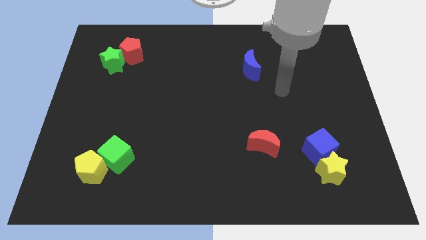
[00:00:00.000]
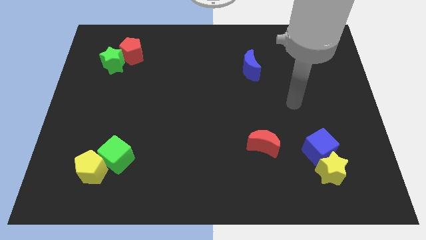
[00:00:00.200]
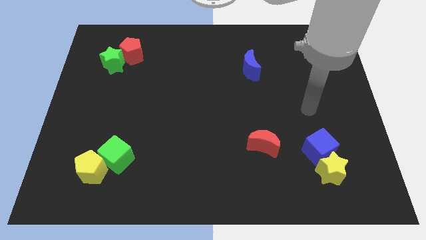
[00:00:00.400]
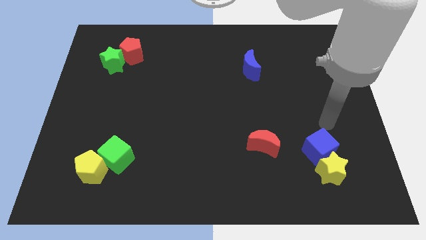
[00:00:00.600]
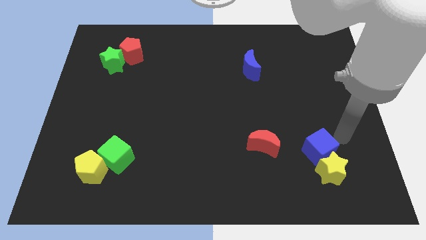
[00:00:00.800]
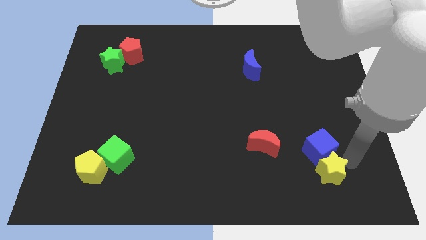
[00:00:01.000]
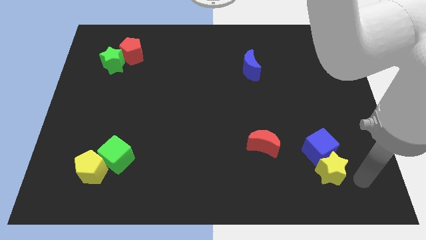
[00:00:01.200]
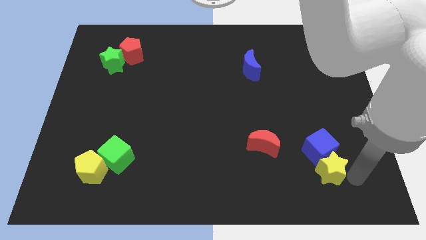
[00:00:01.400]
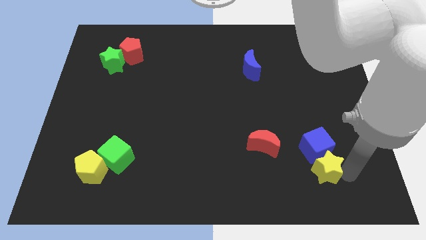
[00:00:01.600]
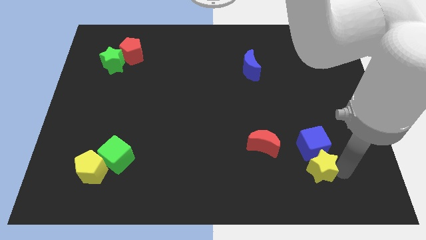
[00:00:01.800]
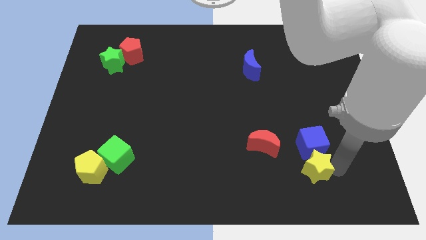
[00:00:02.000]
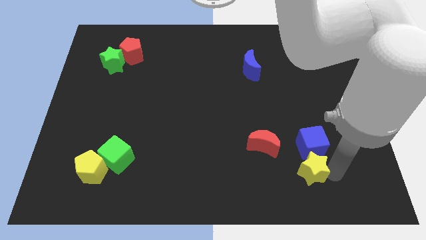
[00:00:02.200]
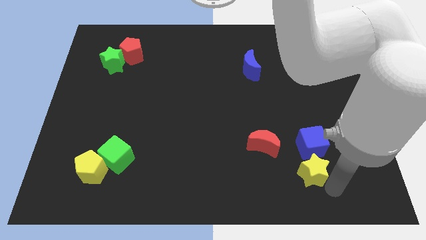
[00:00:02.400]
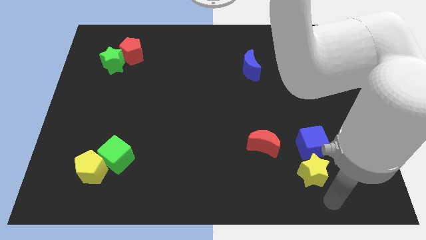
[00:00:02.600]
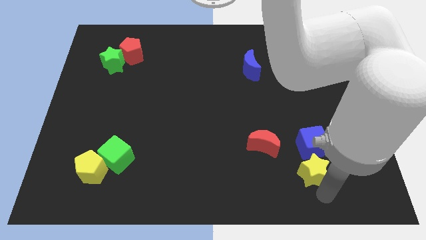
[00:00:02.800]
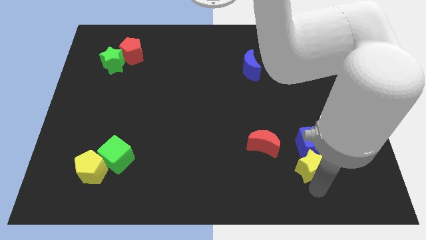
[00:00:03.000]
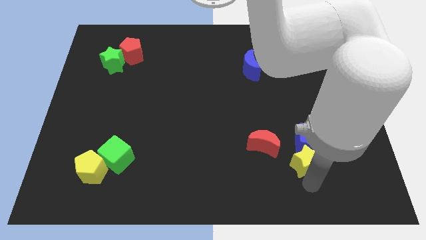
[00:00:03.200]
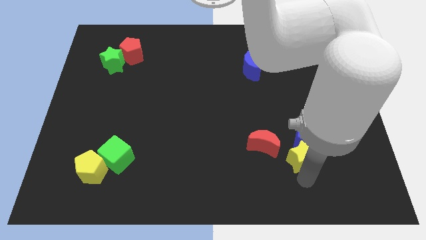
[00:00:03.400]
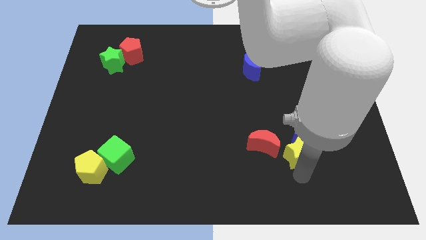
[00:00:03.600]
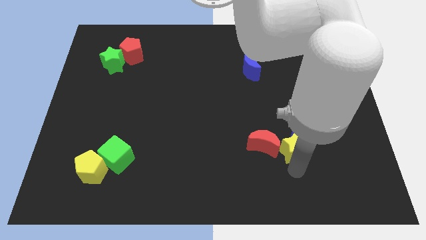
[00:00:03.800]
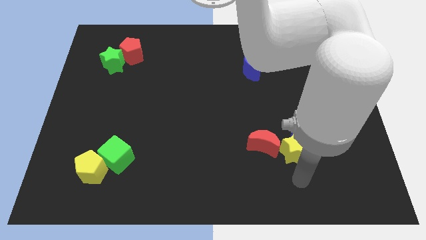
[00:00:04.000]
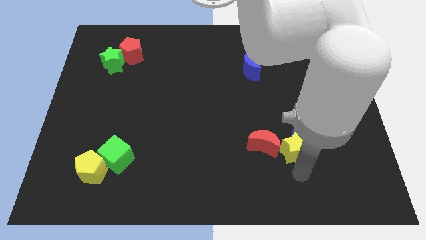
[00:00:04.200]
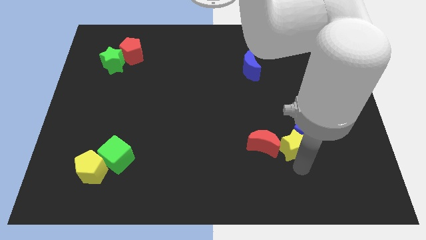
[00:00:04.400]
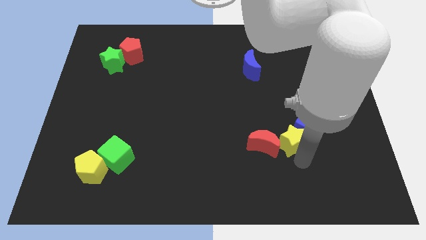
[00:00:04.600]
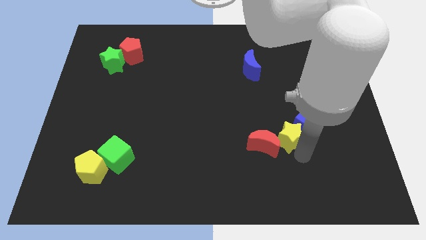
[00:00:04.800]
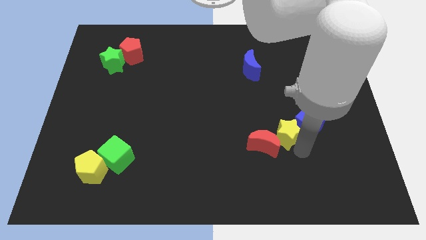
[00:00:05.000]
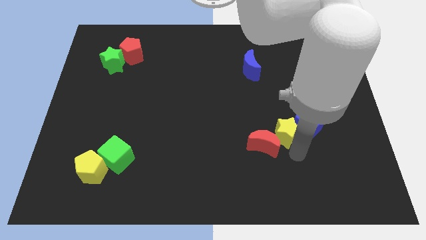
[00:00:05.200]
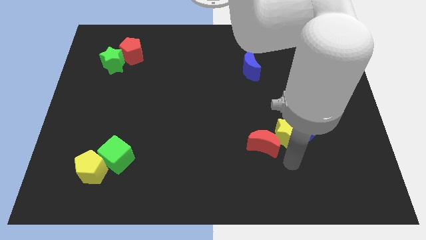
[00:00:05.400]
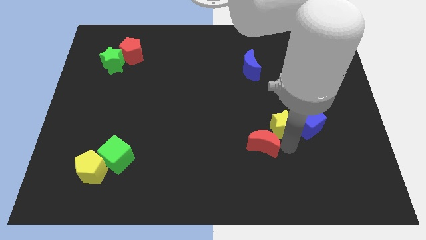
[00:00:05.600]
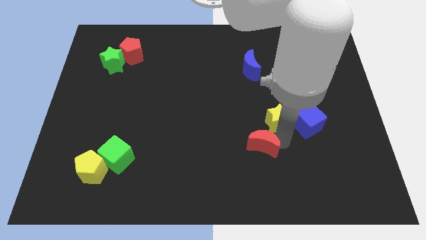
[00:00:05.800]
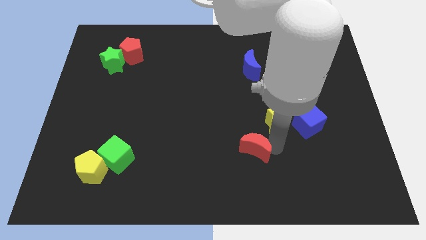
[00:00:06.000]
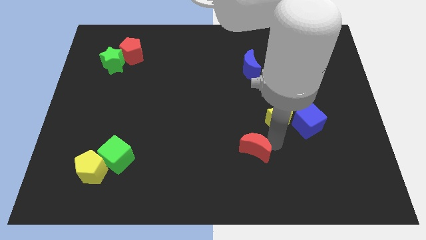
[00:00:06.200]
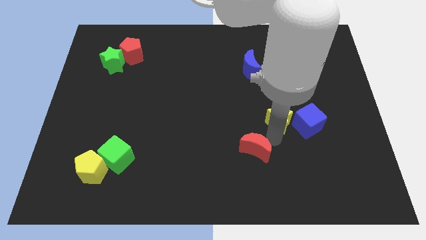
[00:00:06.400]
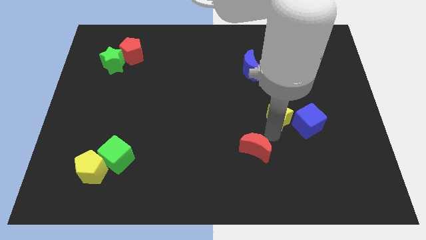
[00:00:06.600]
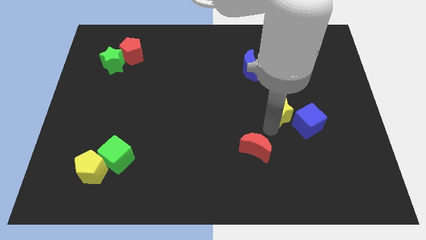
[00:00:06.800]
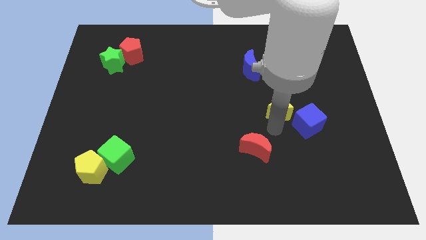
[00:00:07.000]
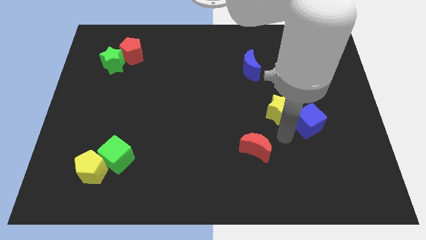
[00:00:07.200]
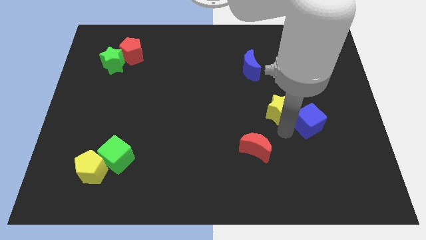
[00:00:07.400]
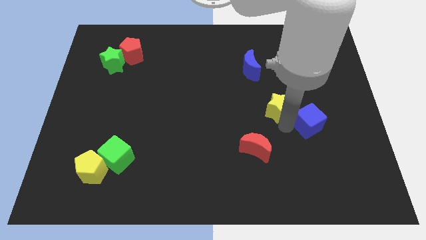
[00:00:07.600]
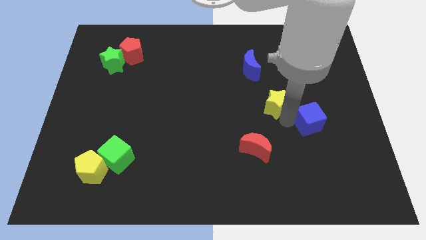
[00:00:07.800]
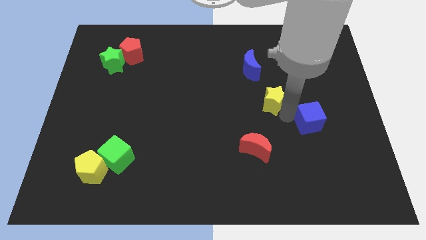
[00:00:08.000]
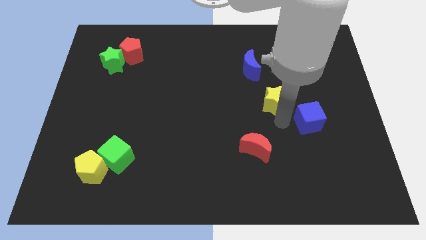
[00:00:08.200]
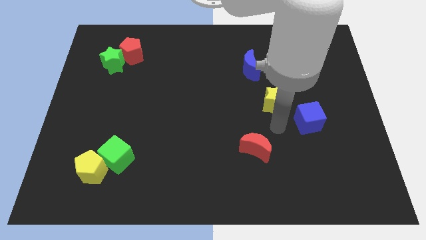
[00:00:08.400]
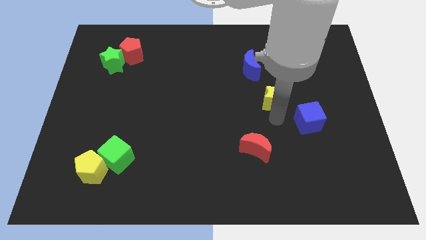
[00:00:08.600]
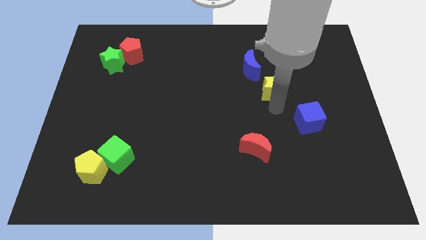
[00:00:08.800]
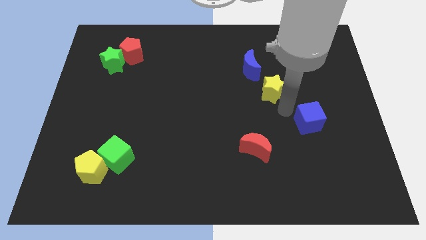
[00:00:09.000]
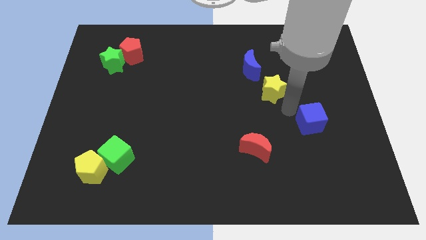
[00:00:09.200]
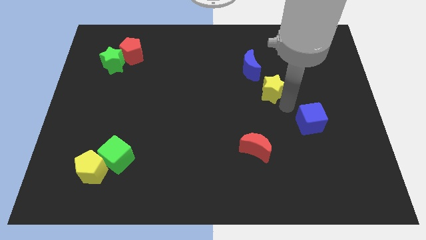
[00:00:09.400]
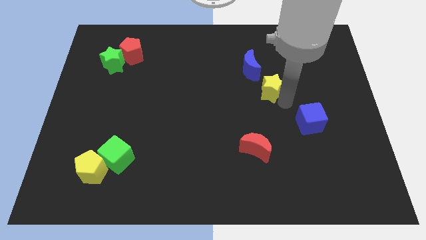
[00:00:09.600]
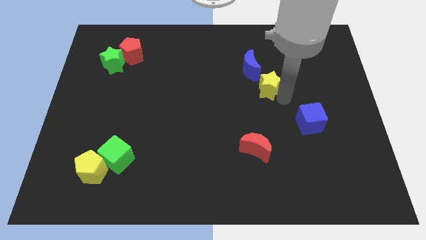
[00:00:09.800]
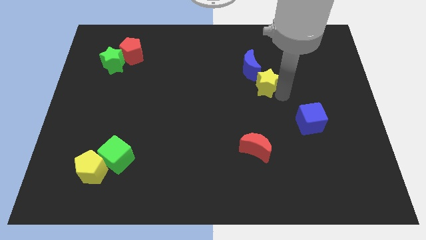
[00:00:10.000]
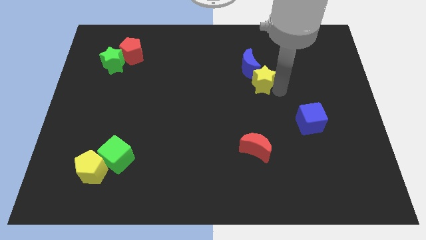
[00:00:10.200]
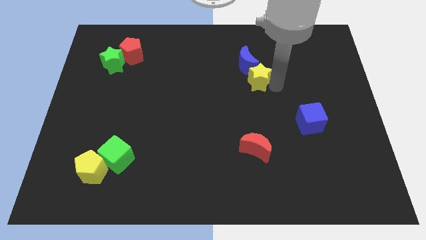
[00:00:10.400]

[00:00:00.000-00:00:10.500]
push the yellow star next to the blue moon

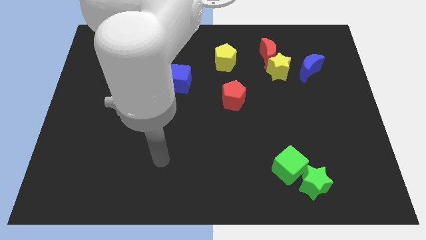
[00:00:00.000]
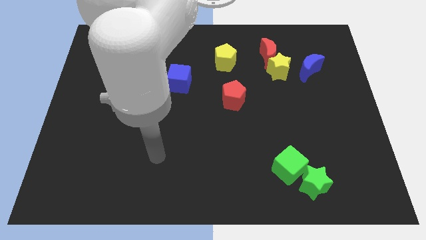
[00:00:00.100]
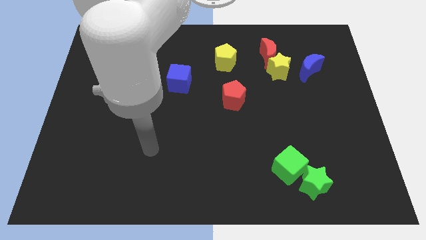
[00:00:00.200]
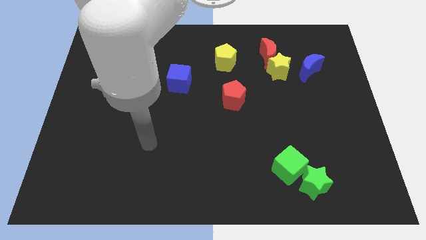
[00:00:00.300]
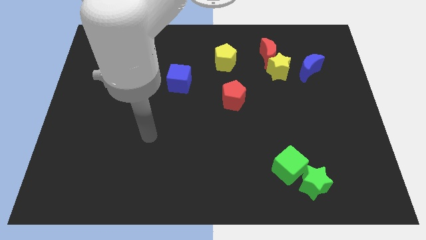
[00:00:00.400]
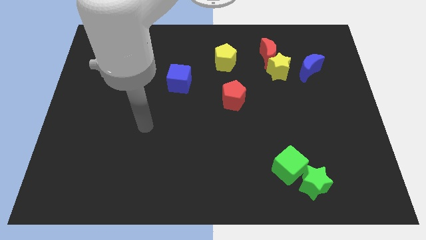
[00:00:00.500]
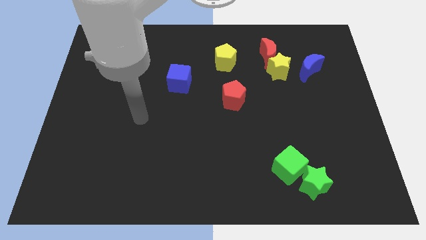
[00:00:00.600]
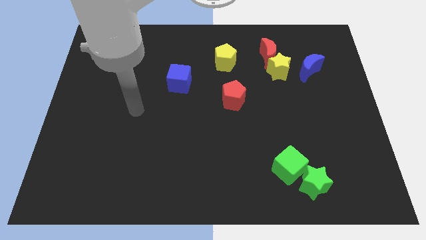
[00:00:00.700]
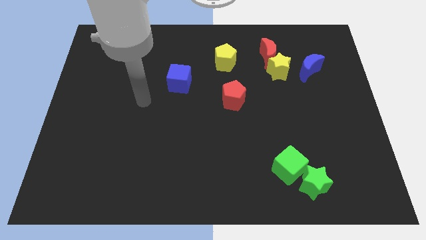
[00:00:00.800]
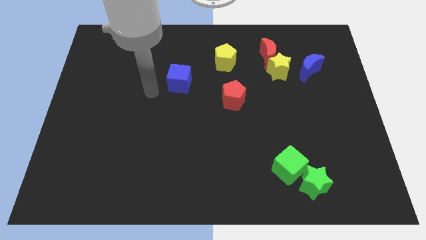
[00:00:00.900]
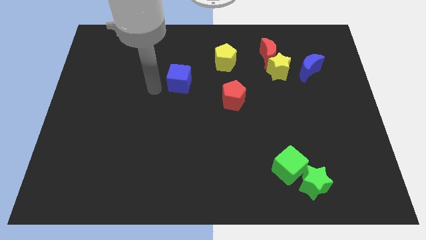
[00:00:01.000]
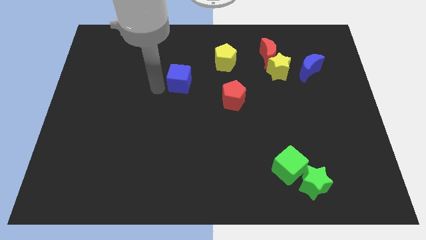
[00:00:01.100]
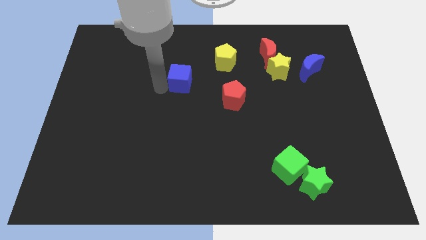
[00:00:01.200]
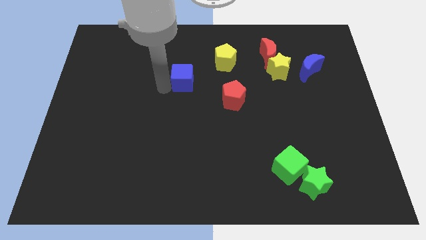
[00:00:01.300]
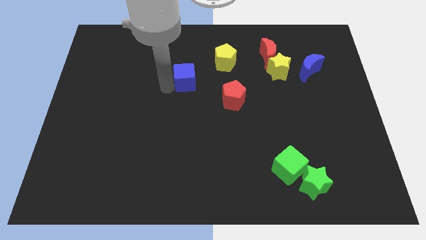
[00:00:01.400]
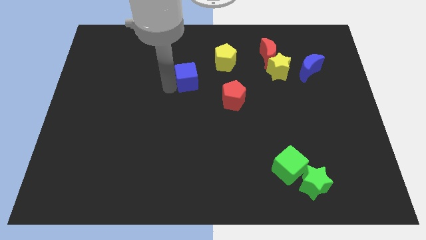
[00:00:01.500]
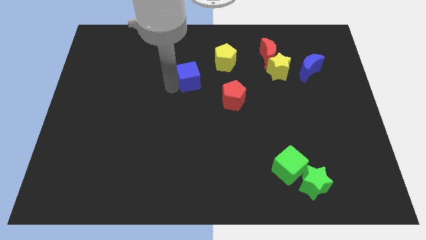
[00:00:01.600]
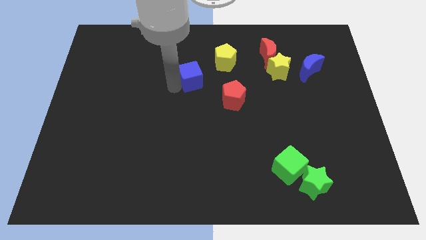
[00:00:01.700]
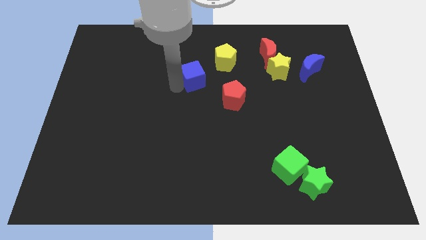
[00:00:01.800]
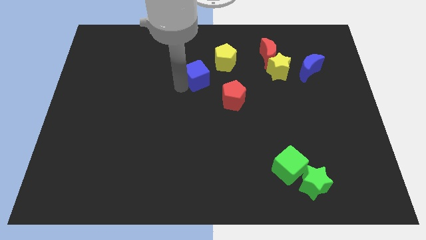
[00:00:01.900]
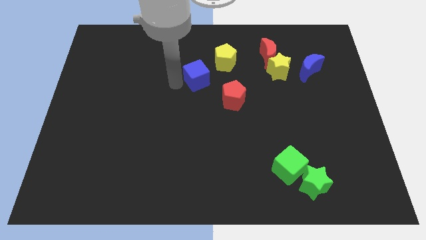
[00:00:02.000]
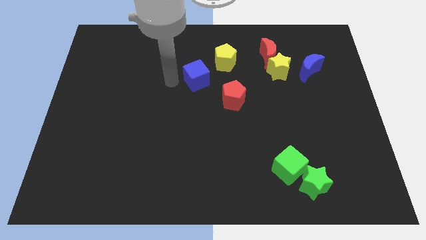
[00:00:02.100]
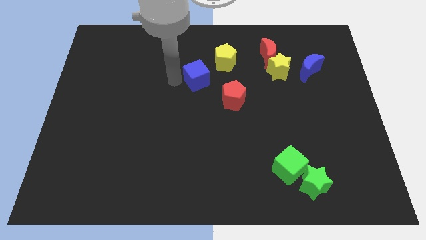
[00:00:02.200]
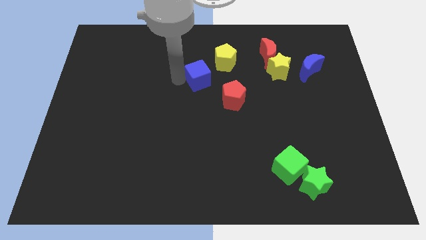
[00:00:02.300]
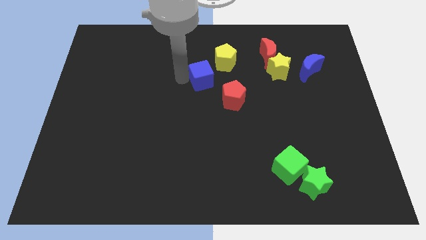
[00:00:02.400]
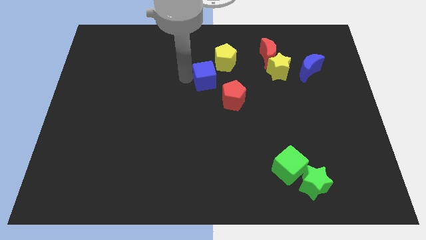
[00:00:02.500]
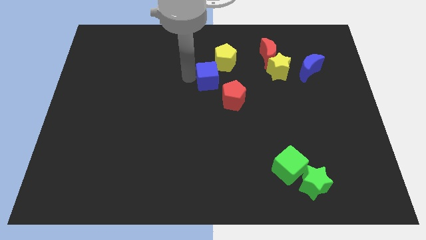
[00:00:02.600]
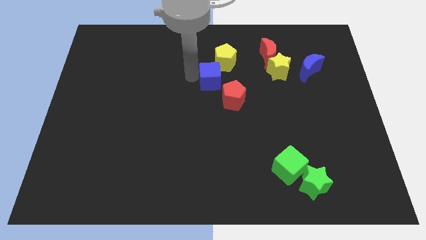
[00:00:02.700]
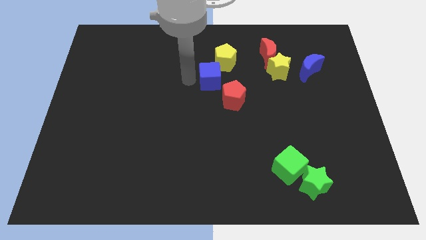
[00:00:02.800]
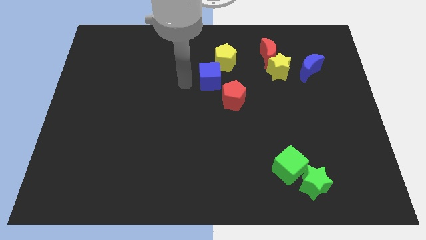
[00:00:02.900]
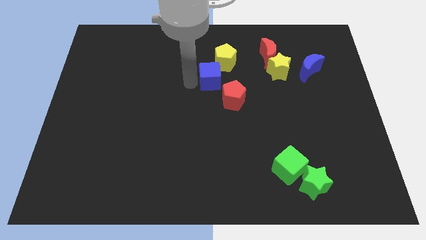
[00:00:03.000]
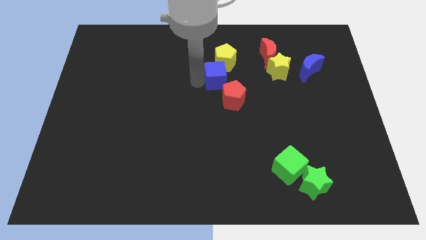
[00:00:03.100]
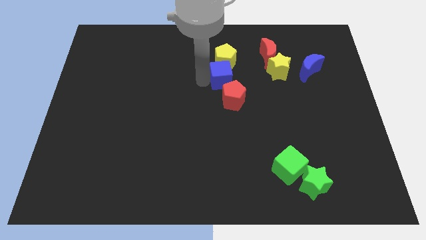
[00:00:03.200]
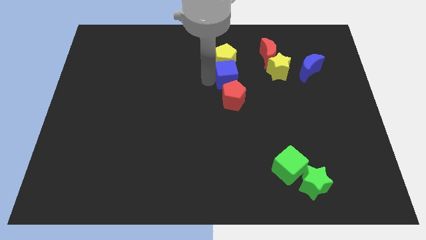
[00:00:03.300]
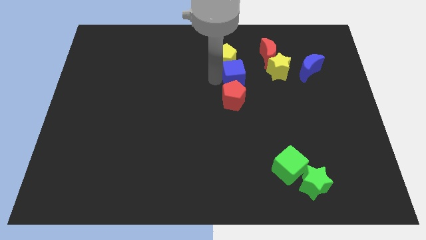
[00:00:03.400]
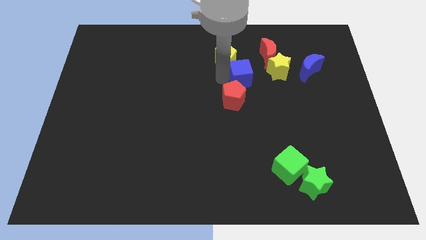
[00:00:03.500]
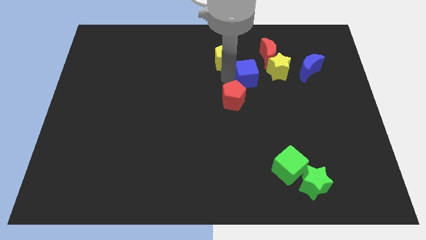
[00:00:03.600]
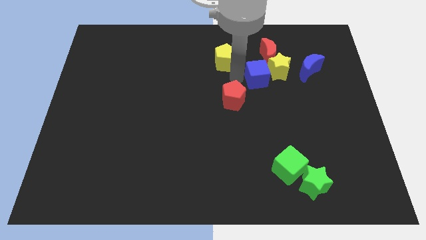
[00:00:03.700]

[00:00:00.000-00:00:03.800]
put the blue cube to the yellow star
